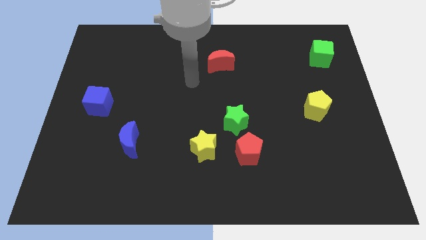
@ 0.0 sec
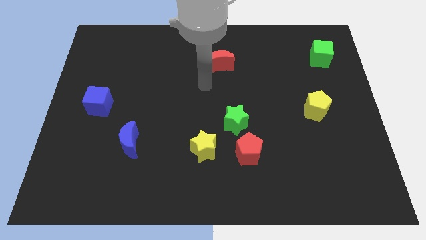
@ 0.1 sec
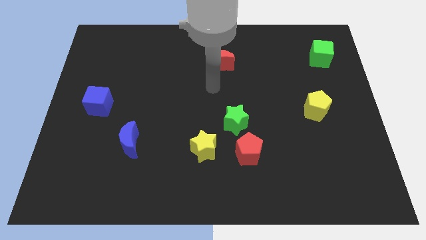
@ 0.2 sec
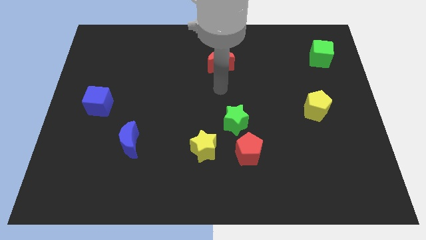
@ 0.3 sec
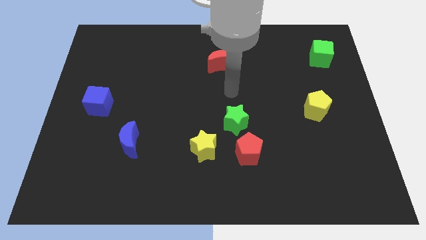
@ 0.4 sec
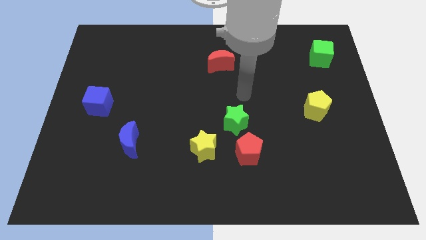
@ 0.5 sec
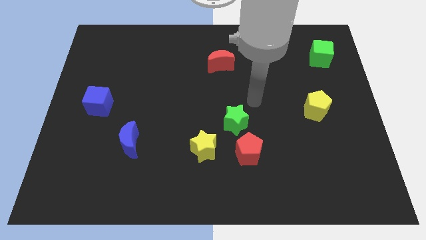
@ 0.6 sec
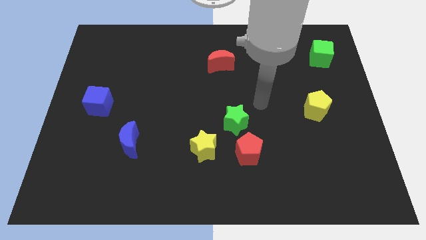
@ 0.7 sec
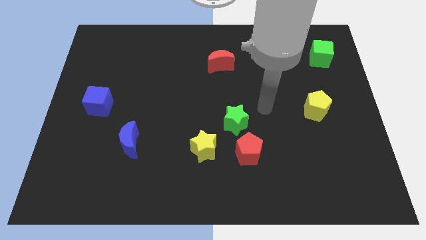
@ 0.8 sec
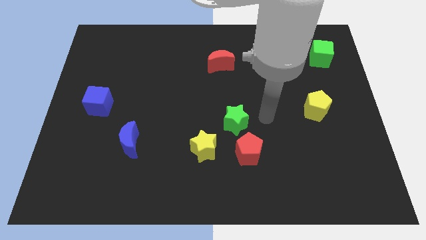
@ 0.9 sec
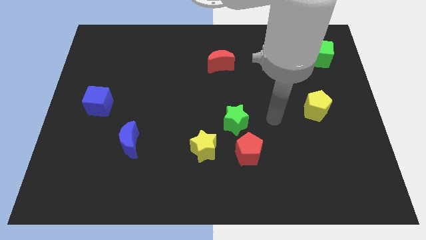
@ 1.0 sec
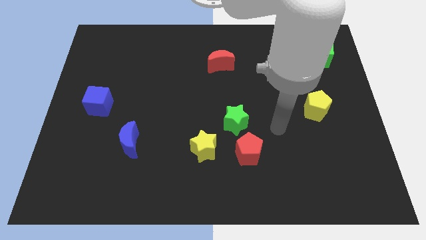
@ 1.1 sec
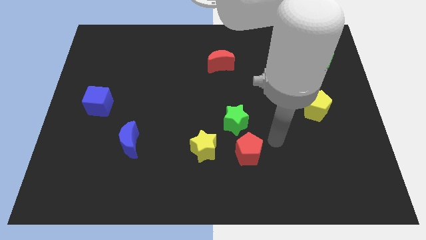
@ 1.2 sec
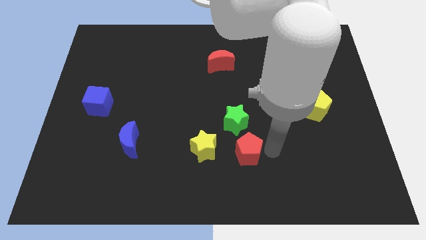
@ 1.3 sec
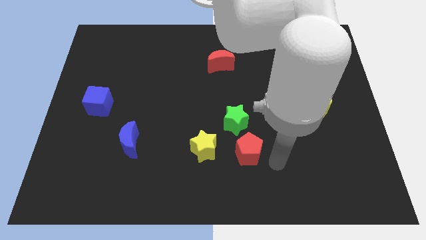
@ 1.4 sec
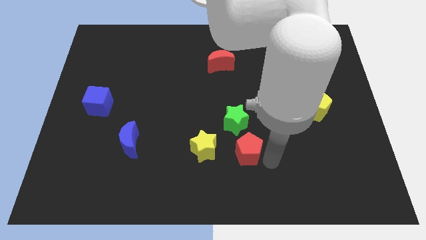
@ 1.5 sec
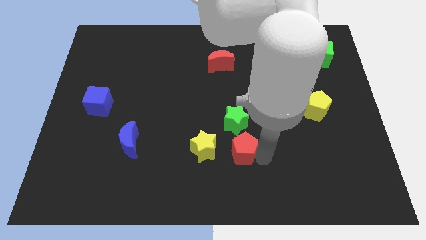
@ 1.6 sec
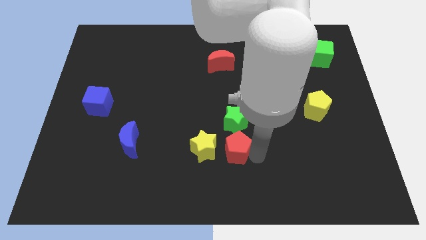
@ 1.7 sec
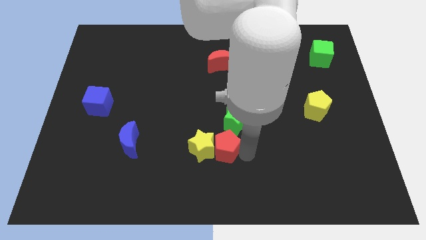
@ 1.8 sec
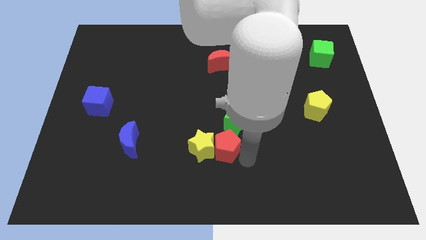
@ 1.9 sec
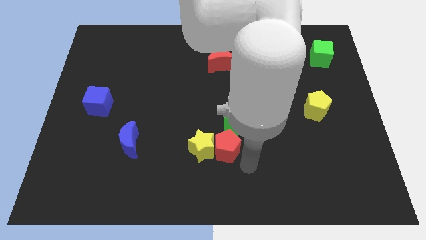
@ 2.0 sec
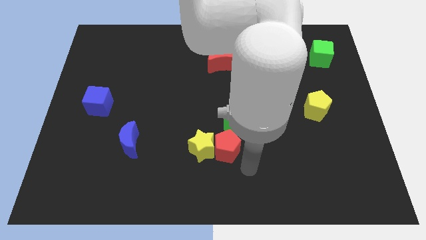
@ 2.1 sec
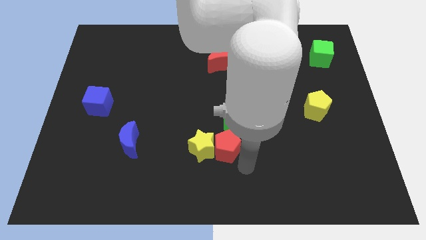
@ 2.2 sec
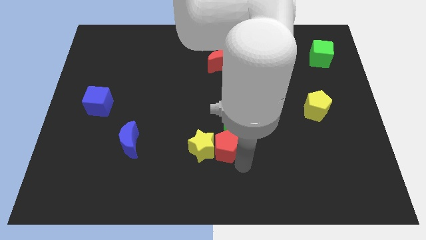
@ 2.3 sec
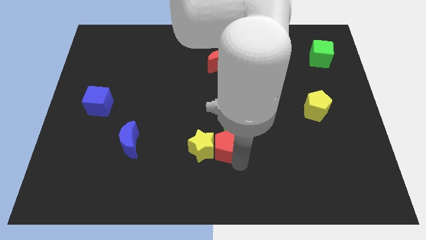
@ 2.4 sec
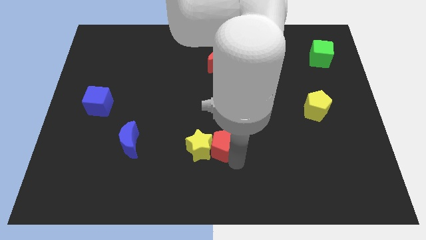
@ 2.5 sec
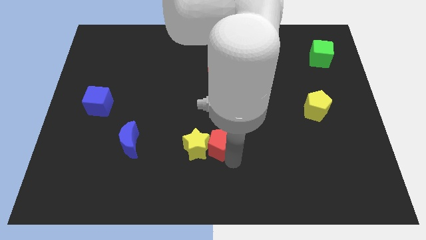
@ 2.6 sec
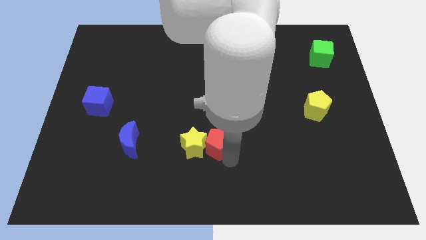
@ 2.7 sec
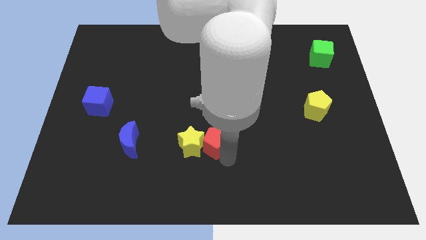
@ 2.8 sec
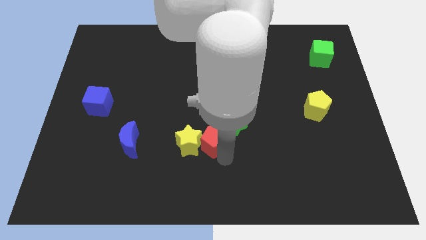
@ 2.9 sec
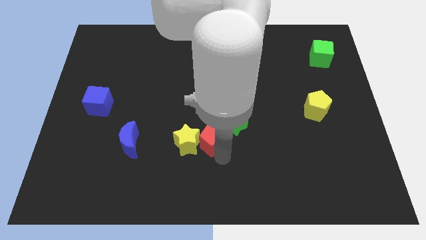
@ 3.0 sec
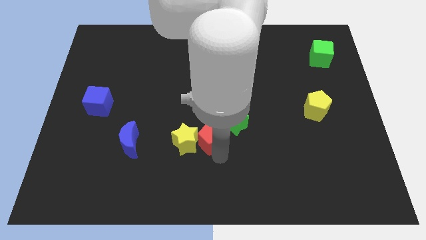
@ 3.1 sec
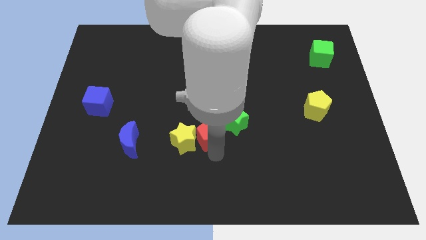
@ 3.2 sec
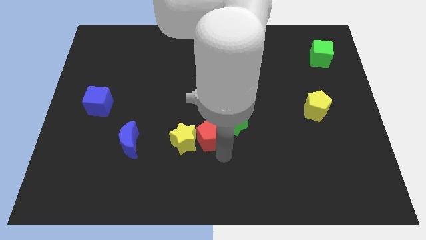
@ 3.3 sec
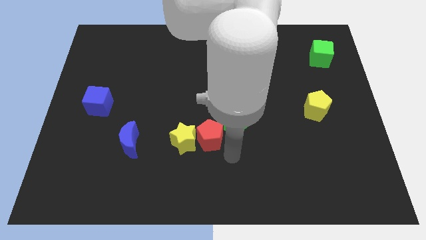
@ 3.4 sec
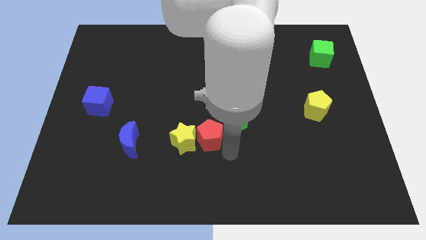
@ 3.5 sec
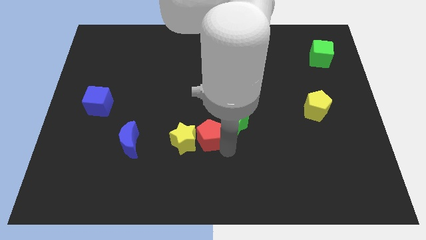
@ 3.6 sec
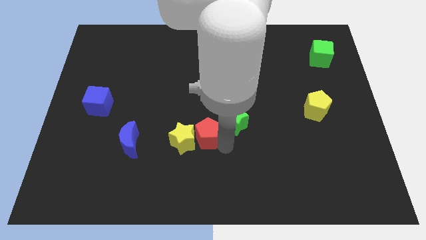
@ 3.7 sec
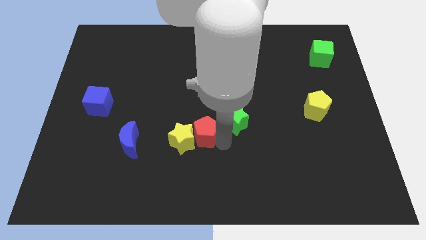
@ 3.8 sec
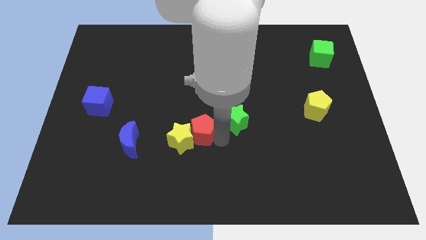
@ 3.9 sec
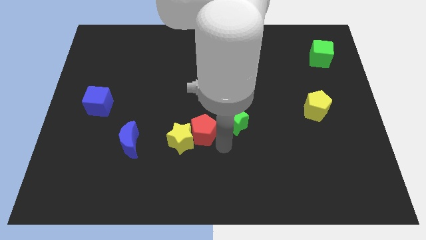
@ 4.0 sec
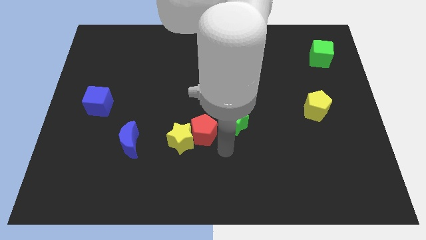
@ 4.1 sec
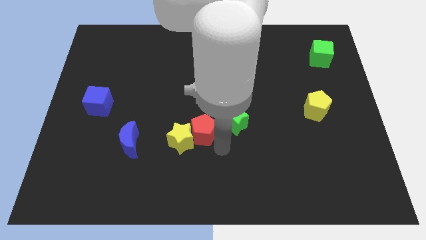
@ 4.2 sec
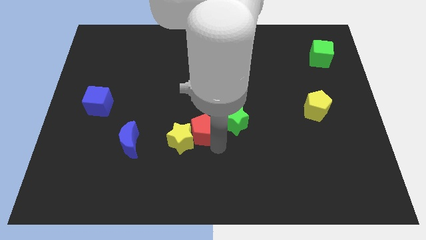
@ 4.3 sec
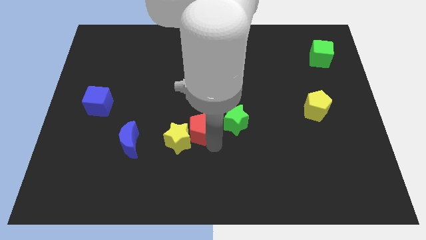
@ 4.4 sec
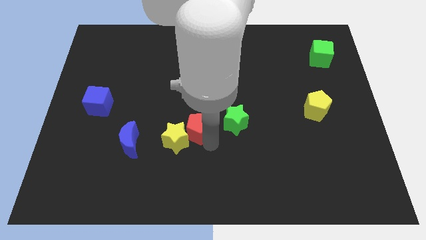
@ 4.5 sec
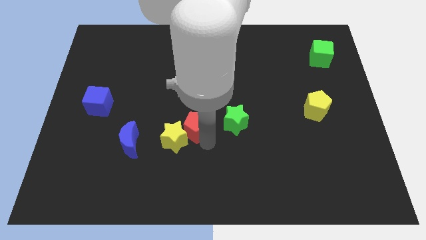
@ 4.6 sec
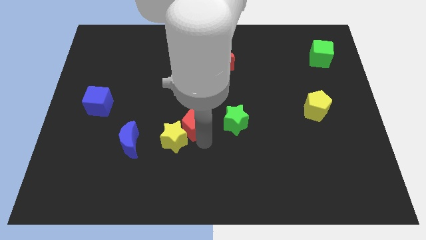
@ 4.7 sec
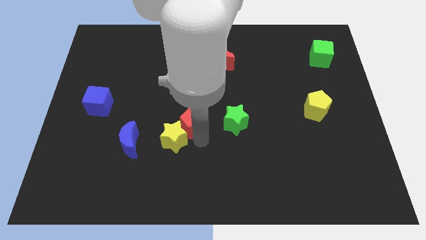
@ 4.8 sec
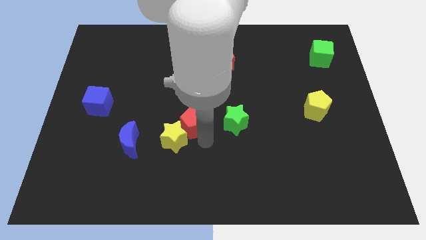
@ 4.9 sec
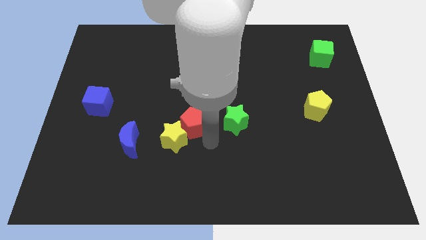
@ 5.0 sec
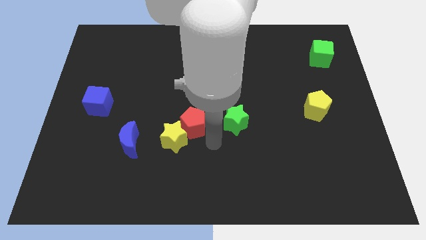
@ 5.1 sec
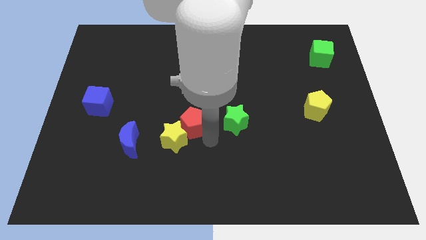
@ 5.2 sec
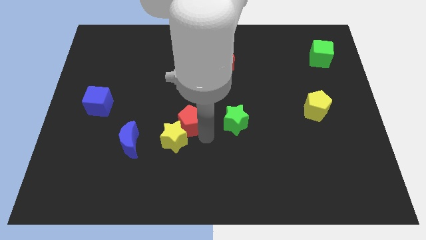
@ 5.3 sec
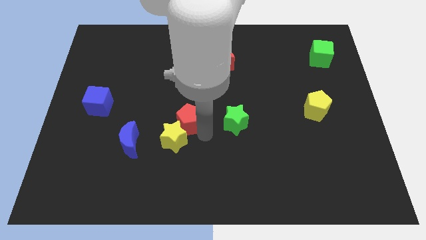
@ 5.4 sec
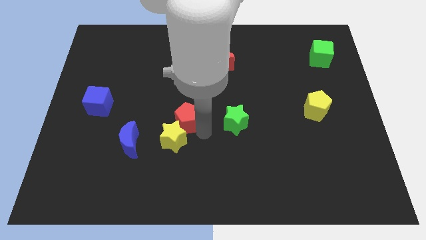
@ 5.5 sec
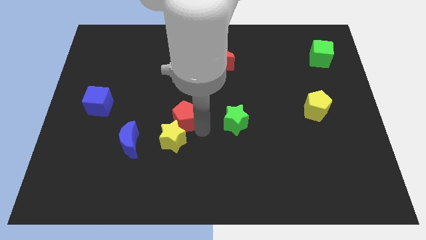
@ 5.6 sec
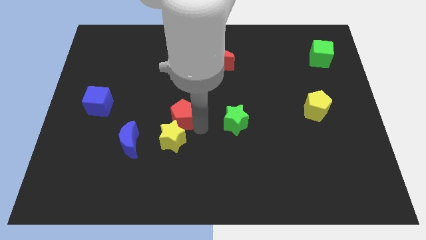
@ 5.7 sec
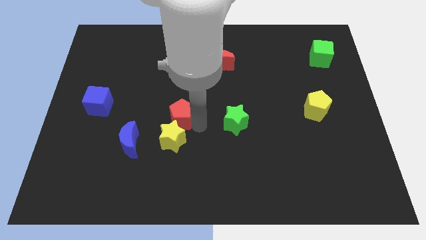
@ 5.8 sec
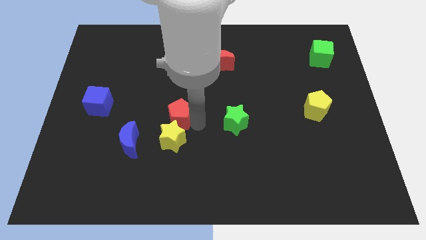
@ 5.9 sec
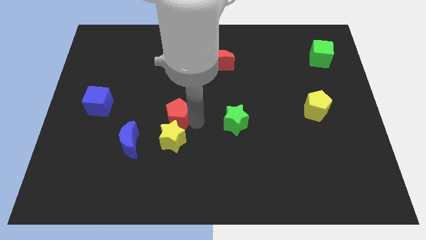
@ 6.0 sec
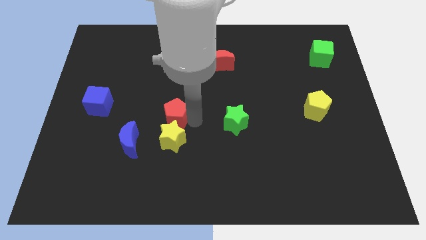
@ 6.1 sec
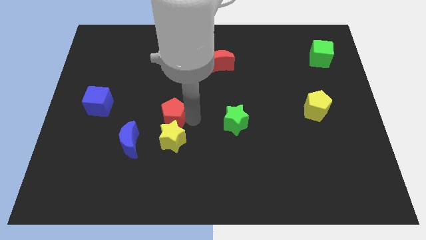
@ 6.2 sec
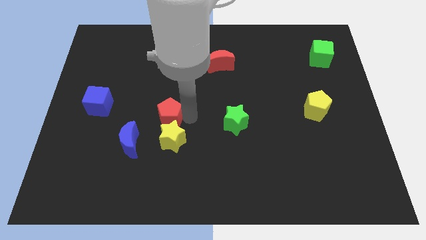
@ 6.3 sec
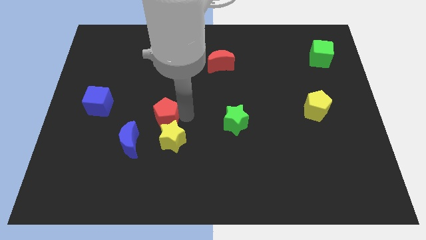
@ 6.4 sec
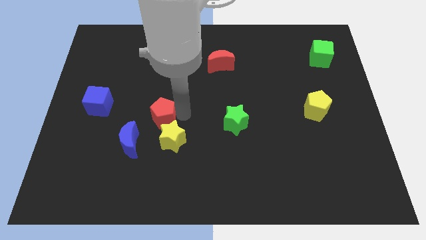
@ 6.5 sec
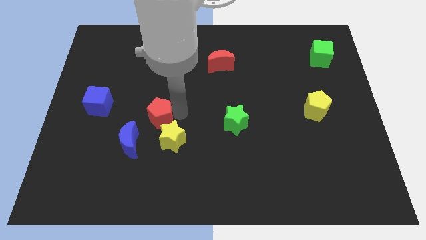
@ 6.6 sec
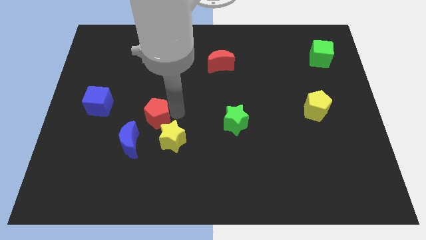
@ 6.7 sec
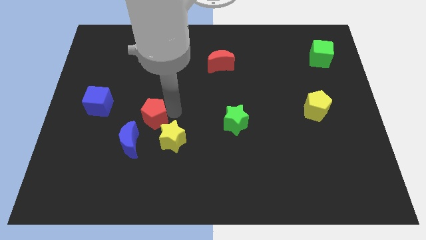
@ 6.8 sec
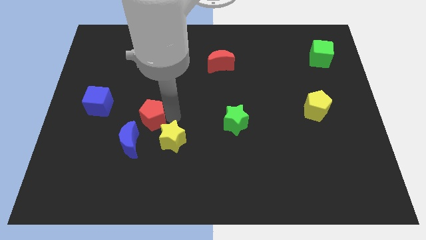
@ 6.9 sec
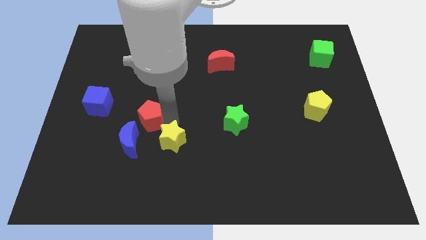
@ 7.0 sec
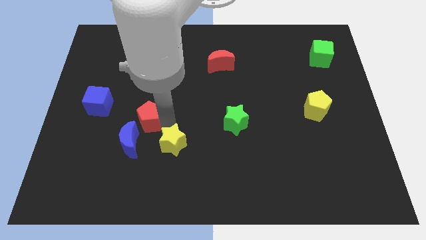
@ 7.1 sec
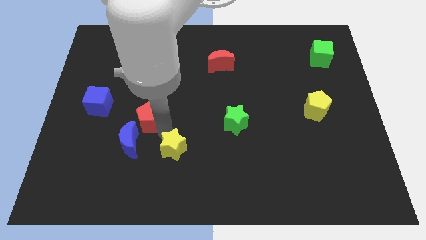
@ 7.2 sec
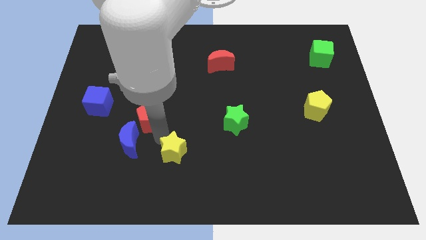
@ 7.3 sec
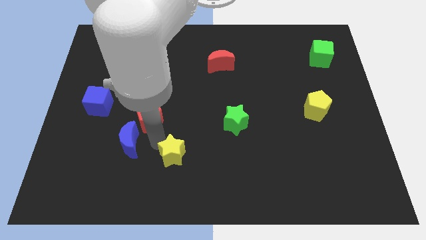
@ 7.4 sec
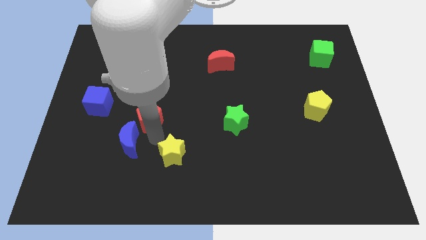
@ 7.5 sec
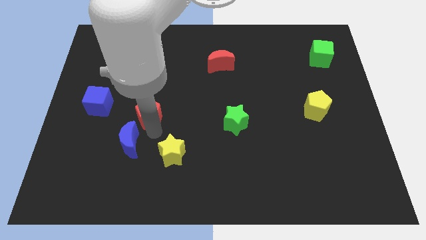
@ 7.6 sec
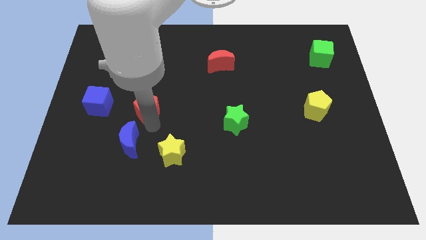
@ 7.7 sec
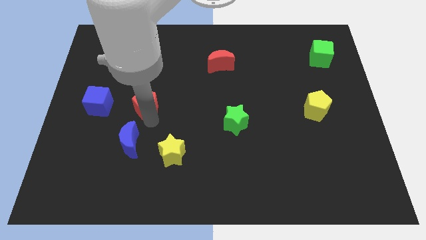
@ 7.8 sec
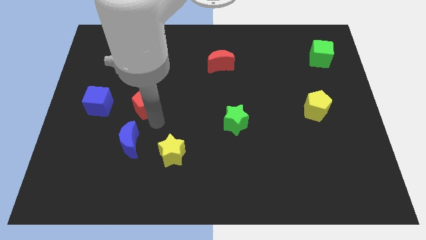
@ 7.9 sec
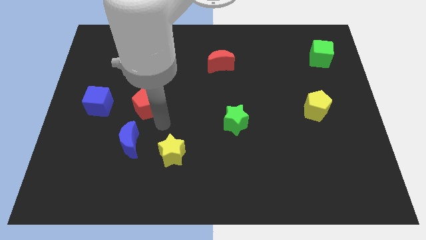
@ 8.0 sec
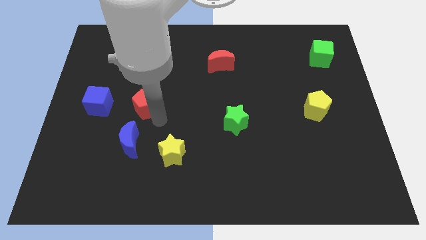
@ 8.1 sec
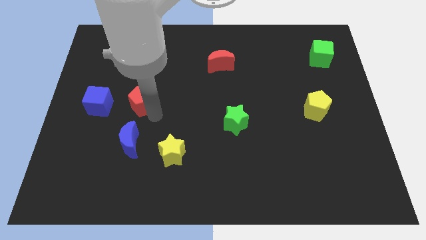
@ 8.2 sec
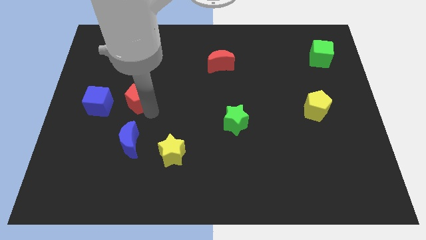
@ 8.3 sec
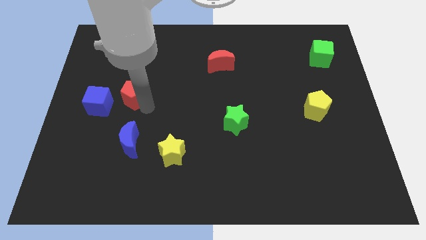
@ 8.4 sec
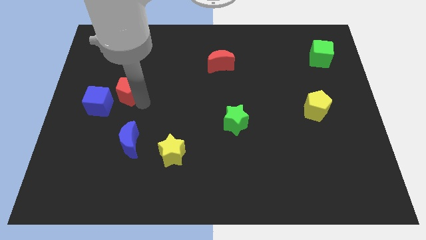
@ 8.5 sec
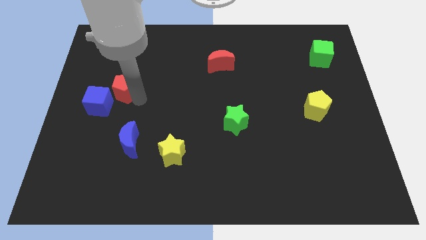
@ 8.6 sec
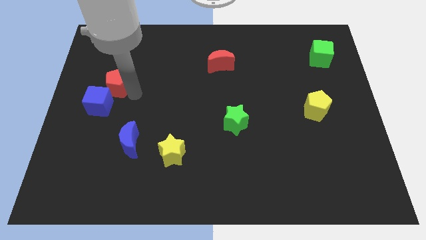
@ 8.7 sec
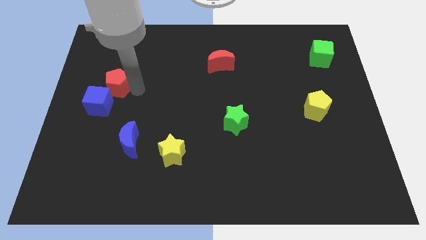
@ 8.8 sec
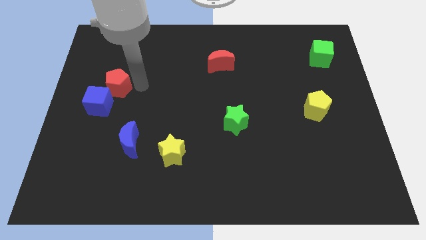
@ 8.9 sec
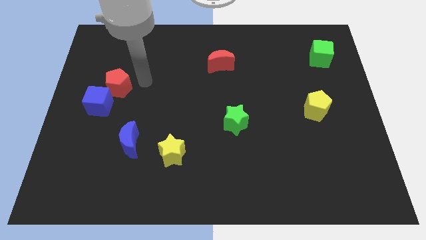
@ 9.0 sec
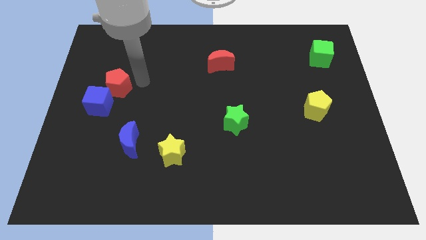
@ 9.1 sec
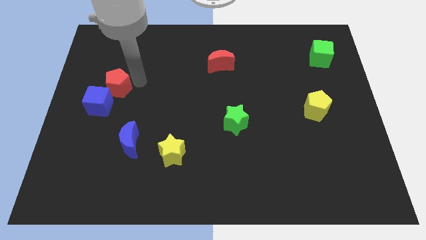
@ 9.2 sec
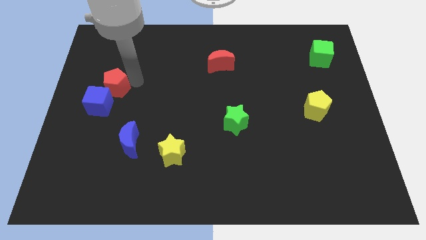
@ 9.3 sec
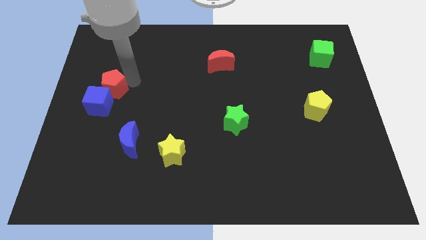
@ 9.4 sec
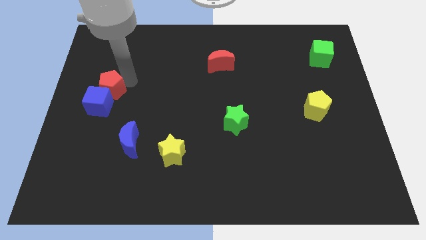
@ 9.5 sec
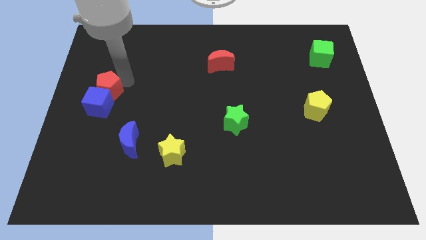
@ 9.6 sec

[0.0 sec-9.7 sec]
push the red pentagon to the left side
